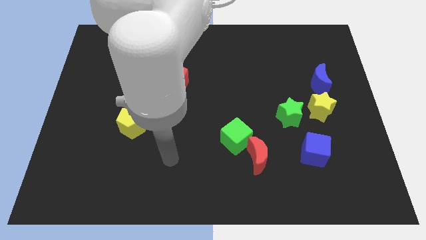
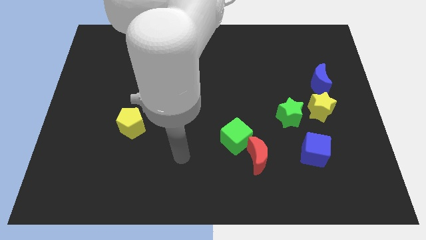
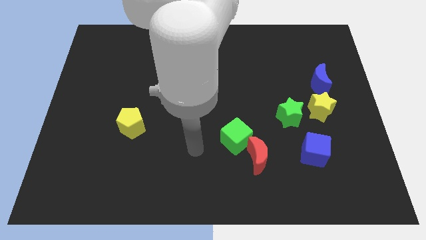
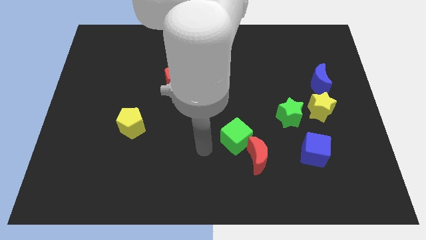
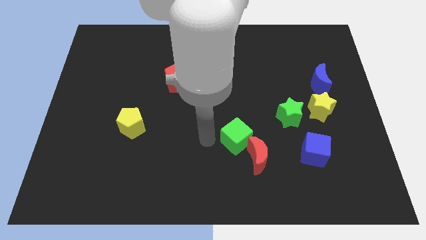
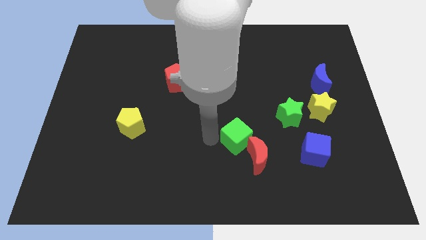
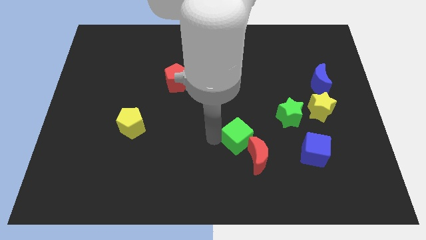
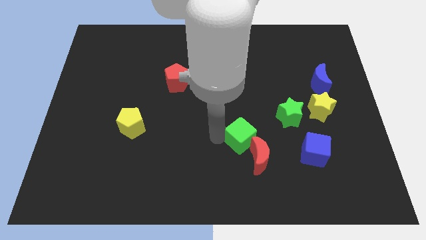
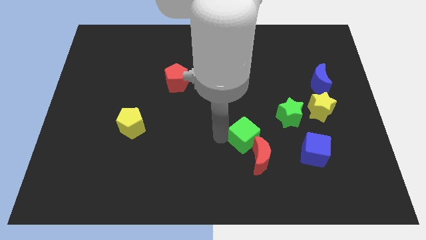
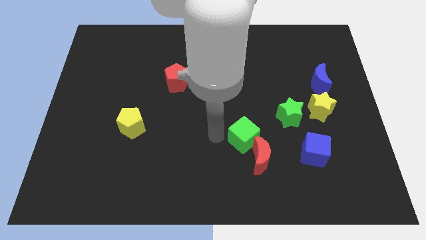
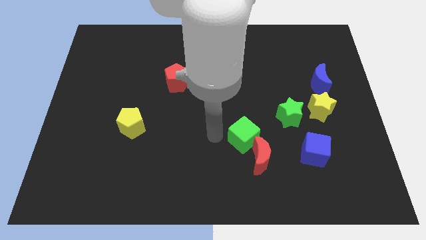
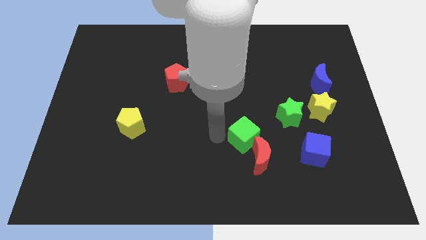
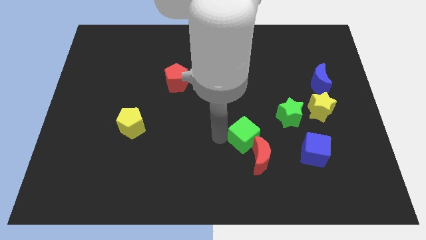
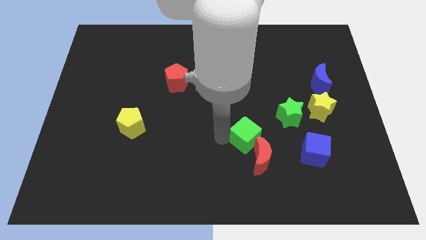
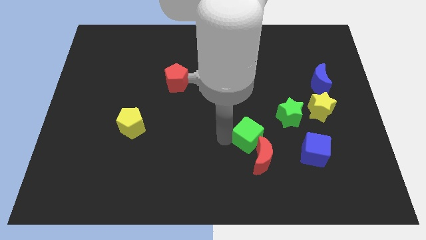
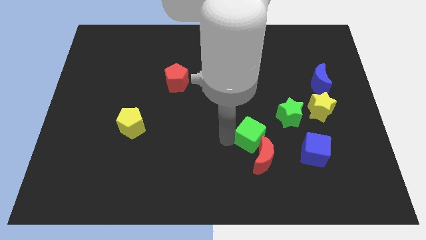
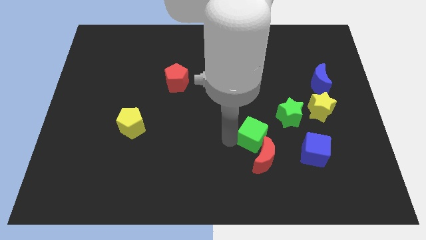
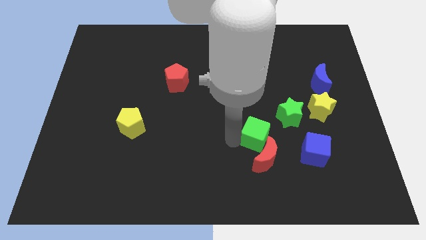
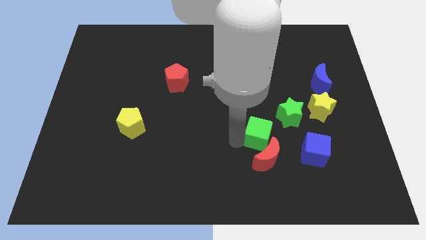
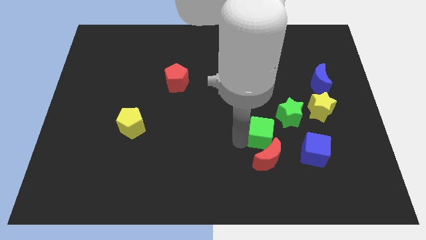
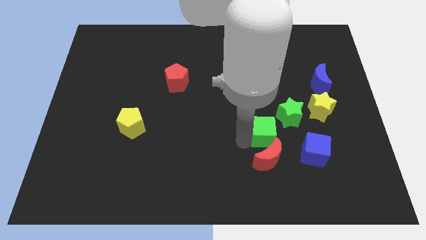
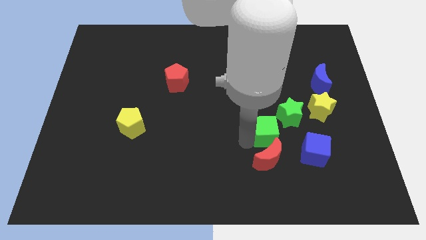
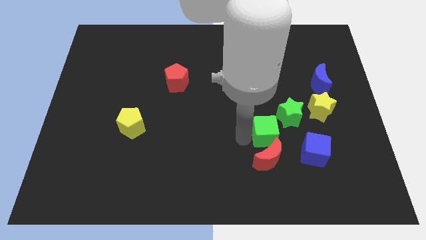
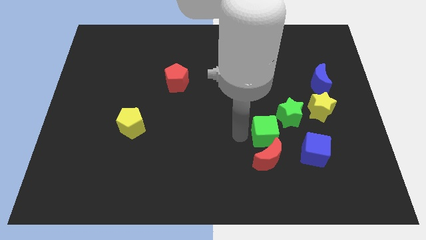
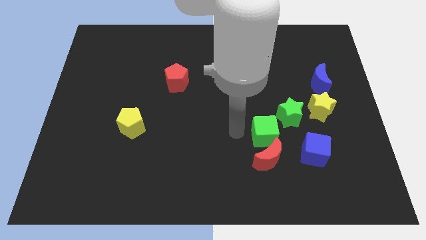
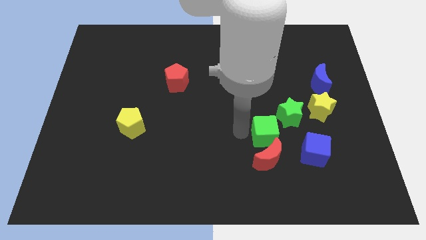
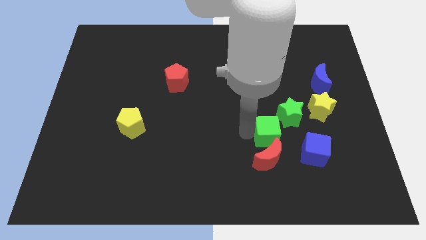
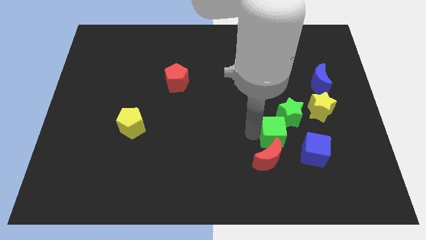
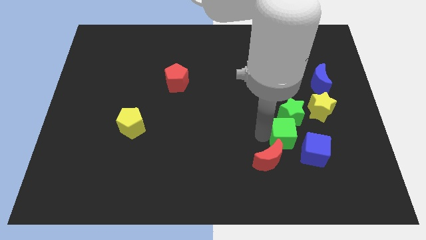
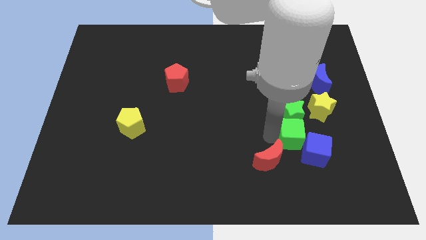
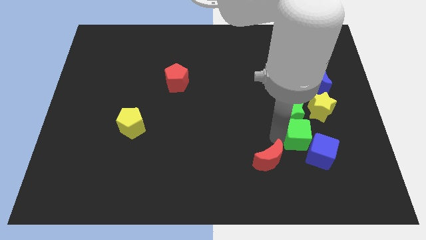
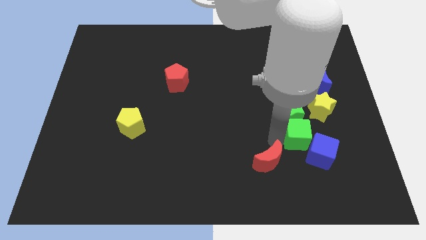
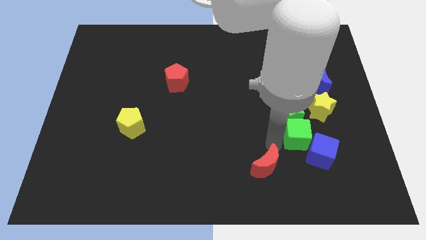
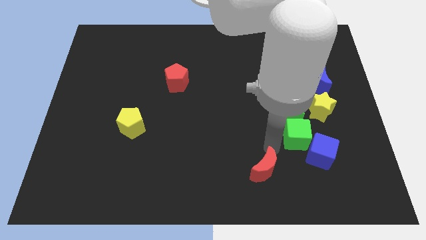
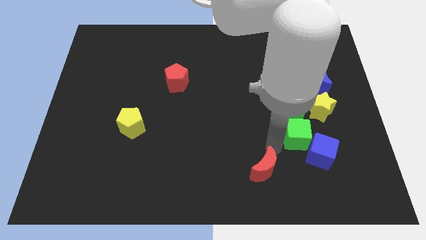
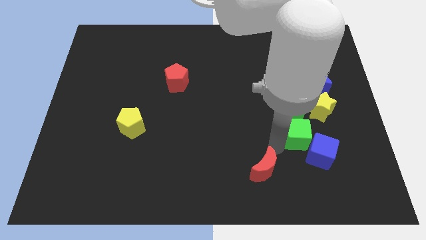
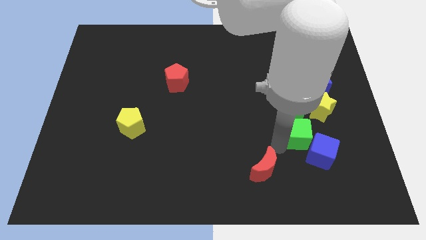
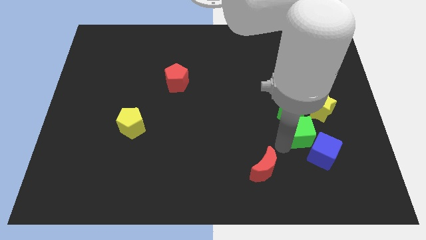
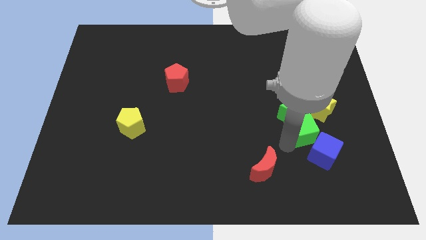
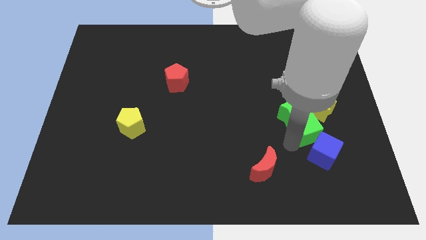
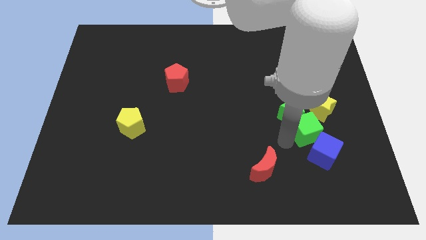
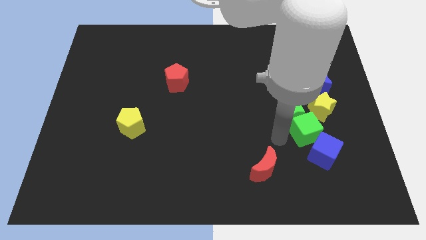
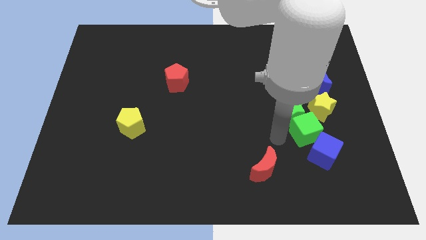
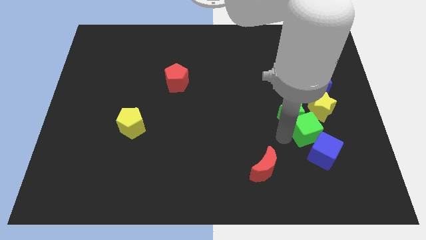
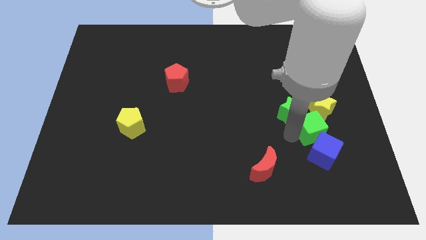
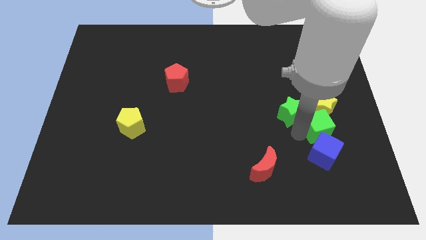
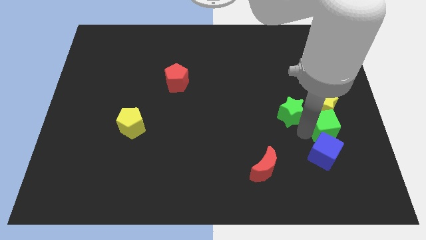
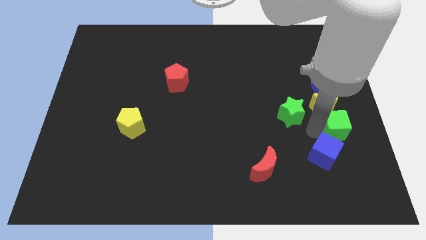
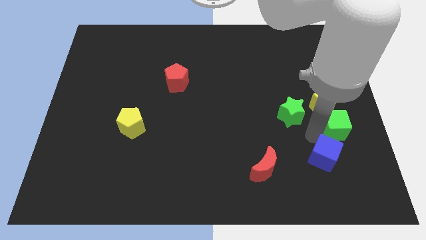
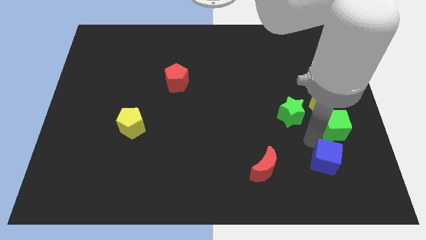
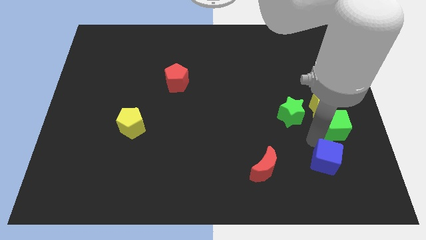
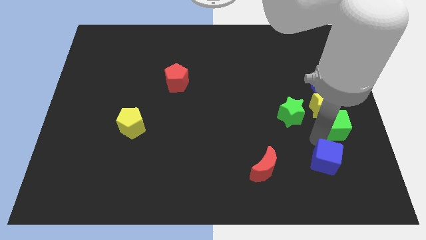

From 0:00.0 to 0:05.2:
move the green cube to the center right

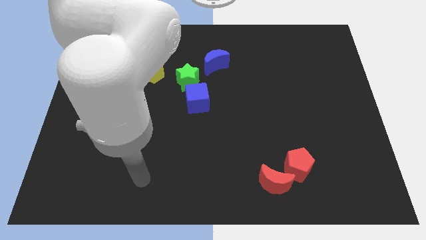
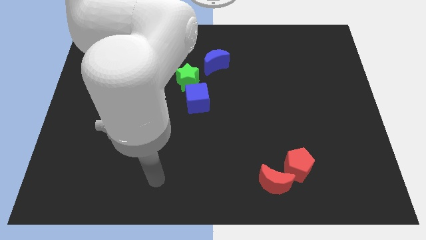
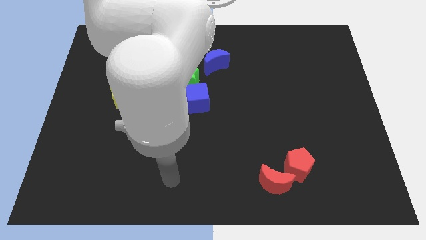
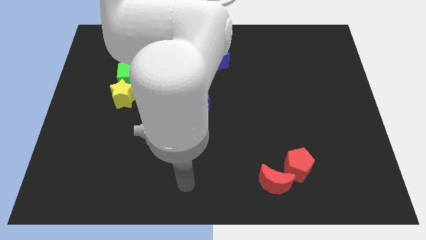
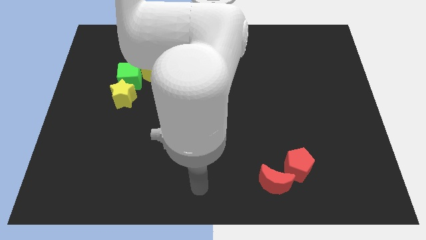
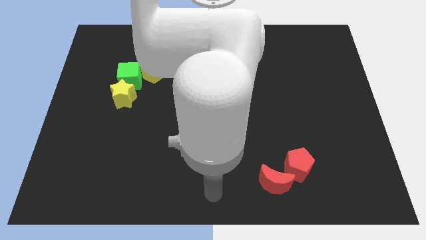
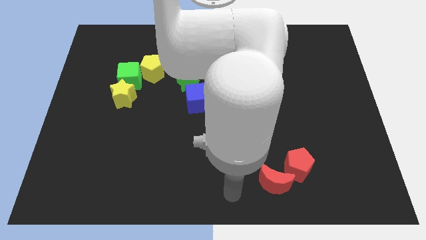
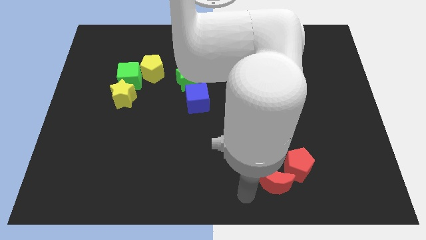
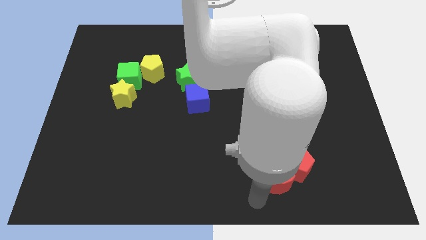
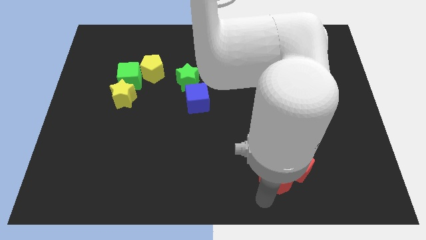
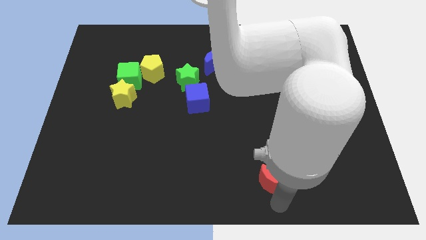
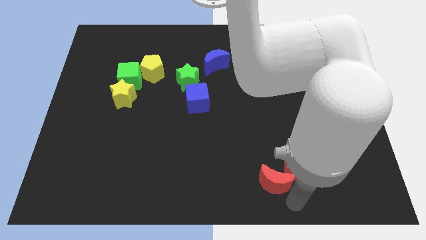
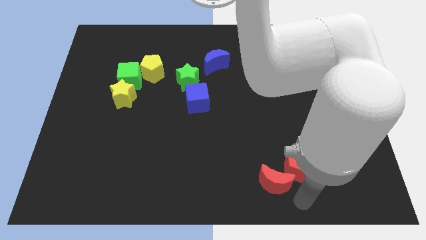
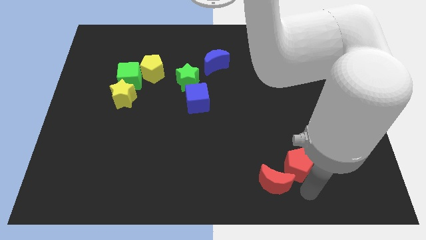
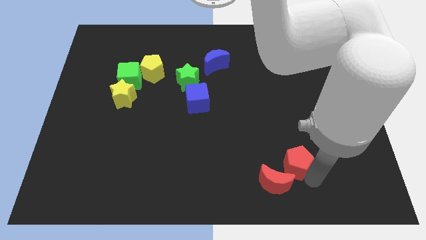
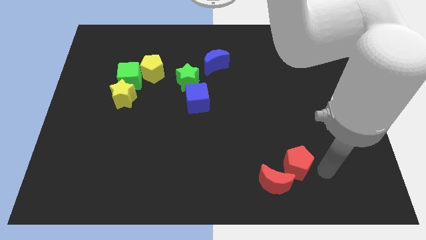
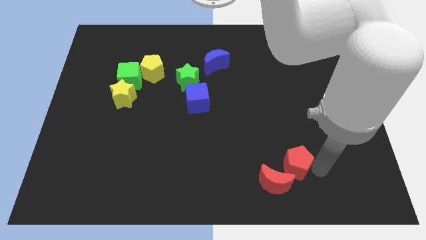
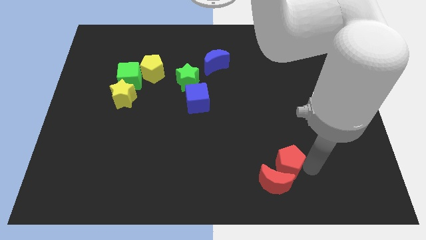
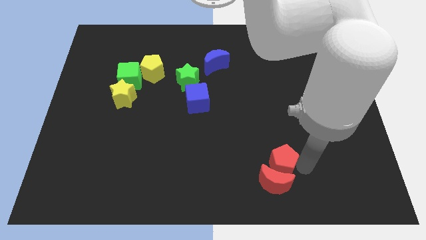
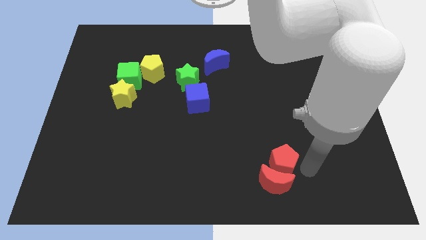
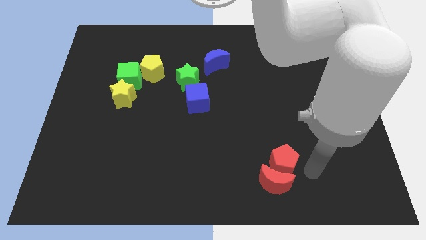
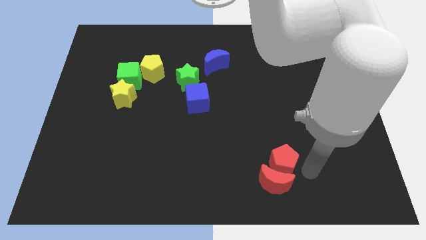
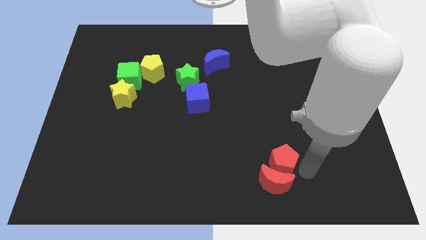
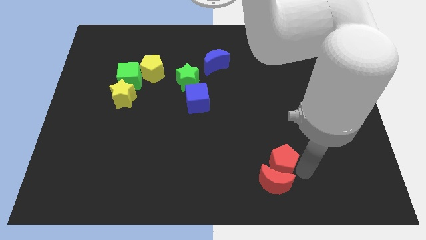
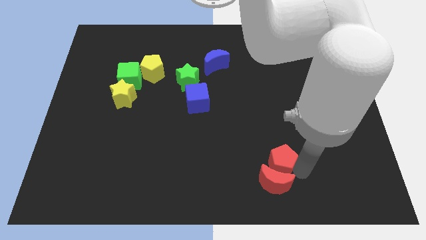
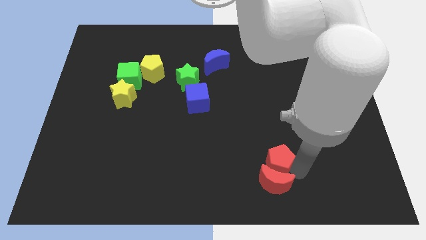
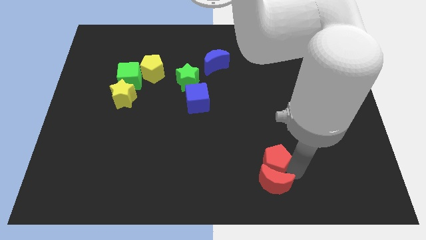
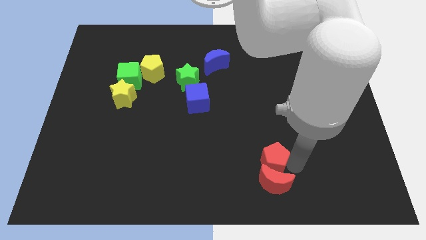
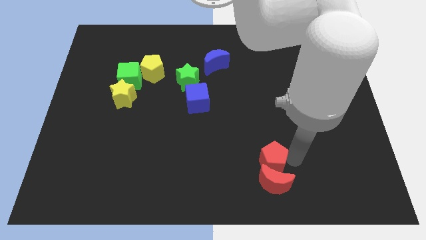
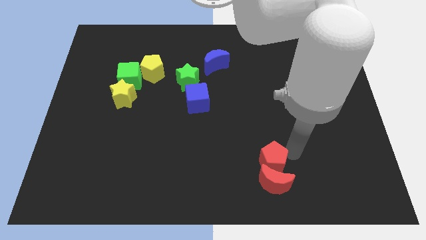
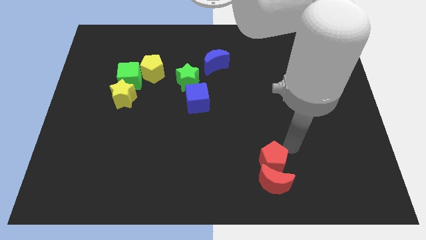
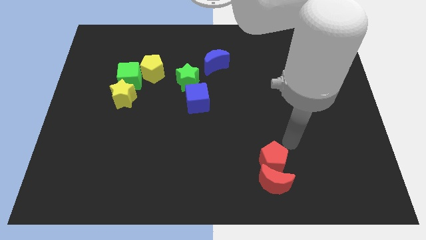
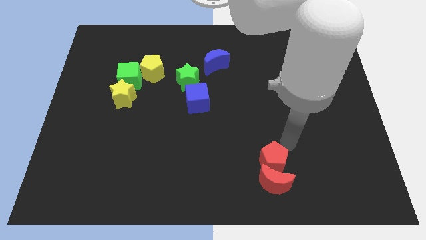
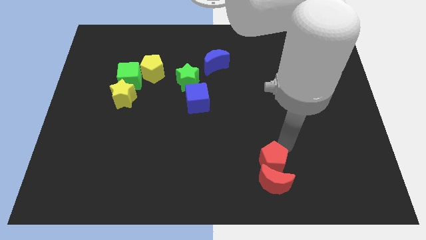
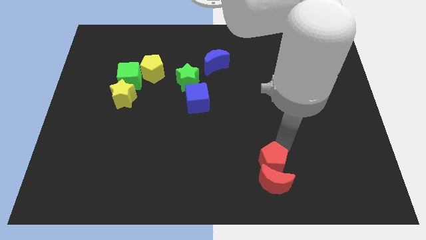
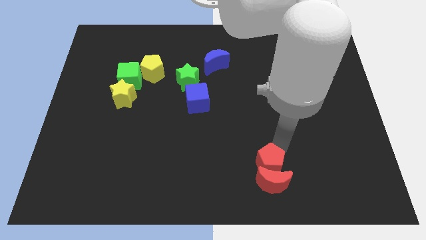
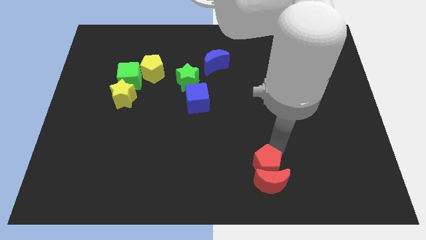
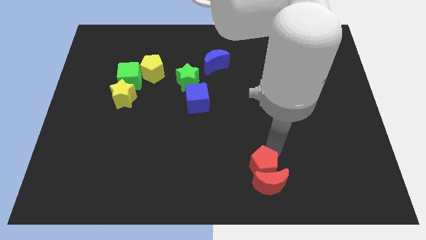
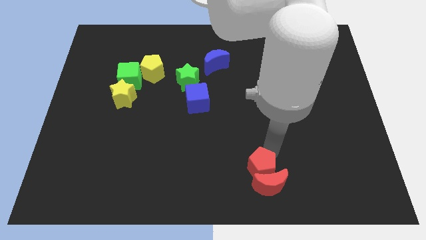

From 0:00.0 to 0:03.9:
push the red pentagon to the bottom
